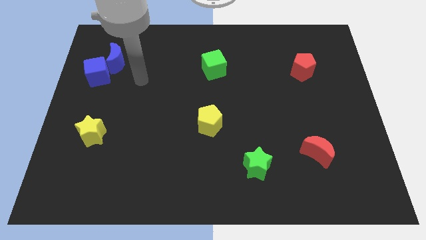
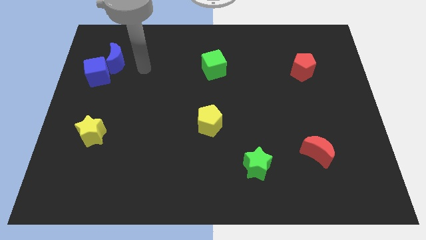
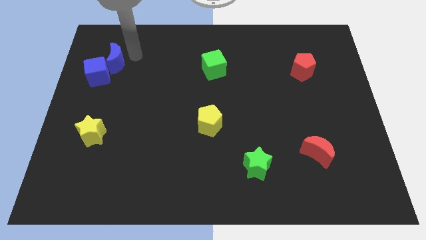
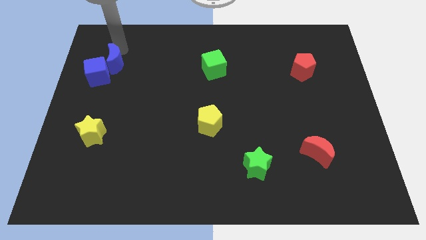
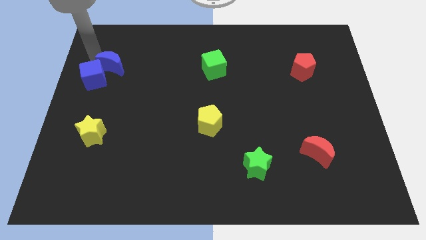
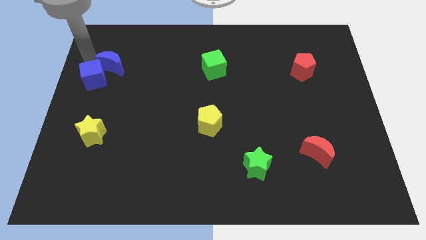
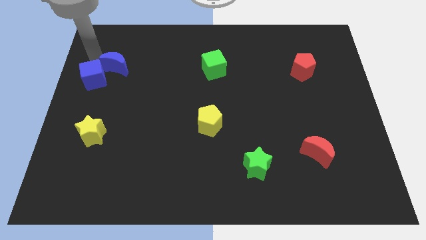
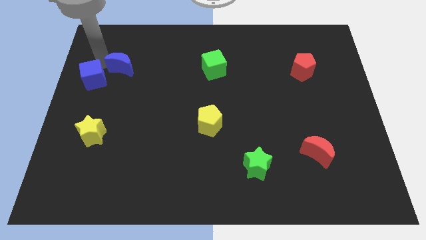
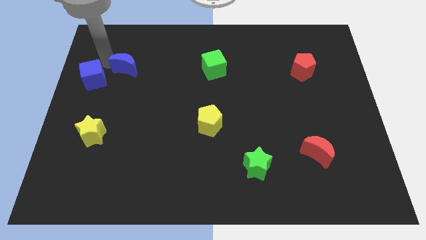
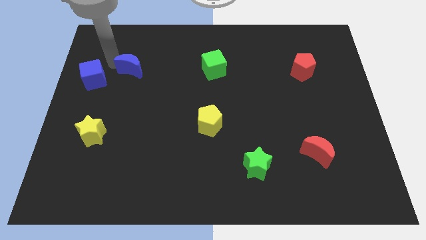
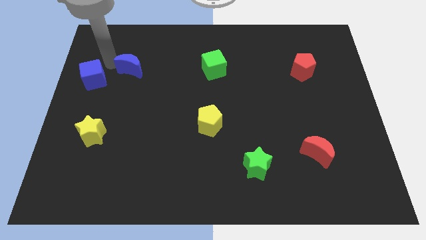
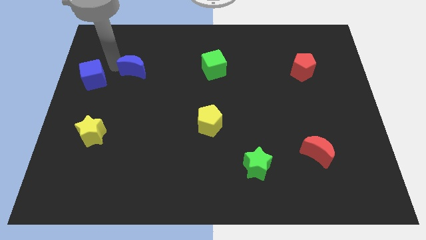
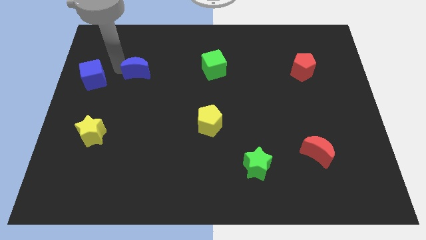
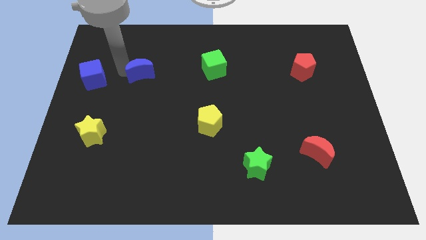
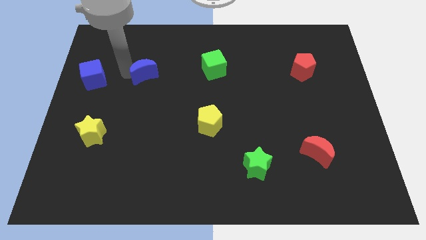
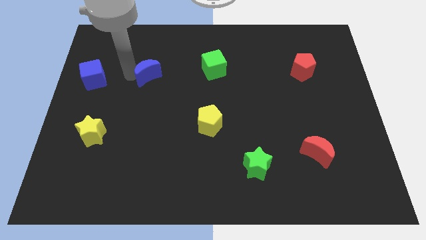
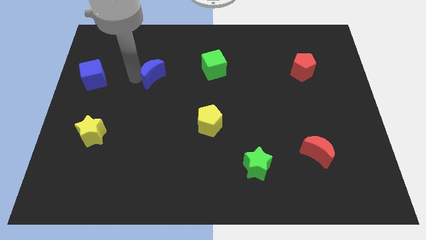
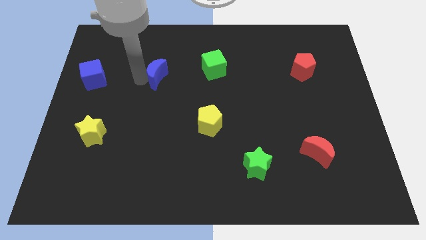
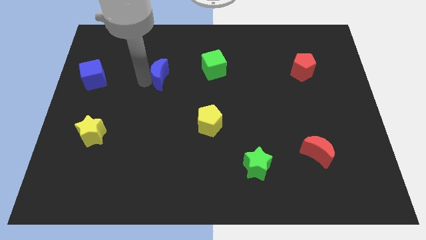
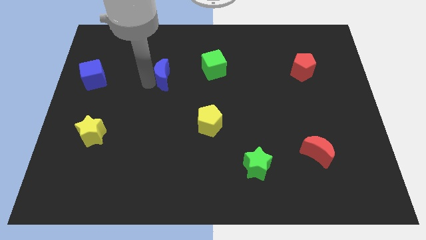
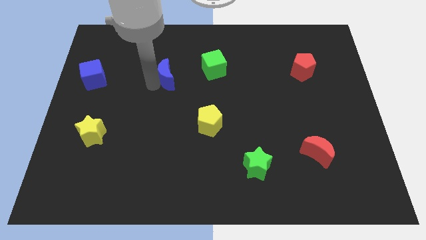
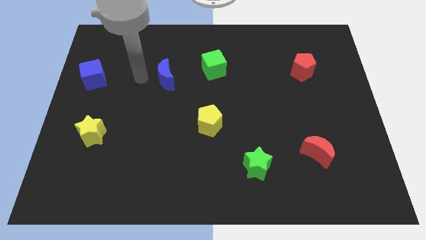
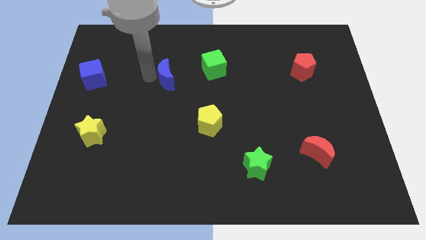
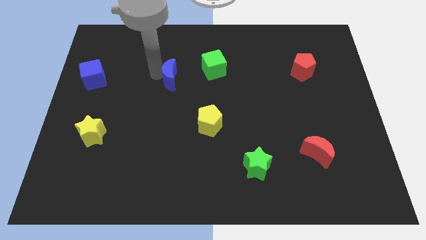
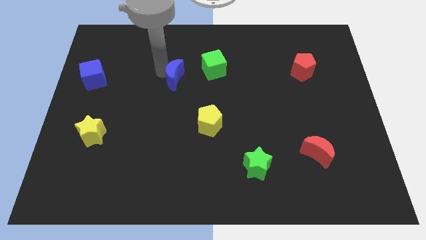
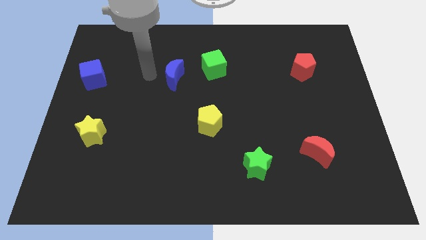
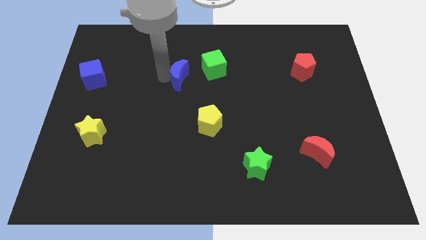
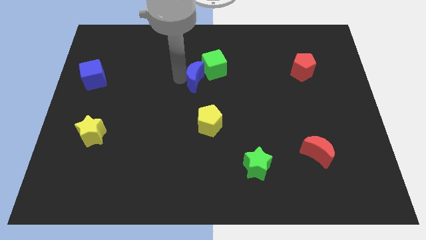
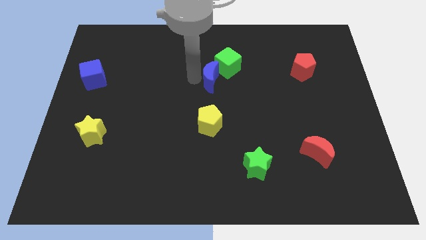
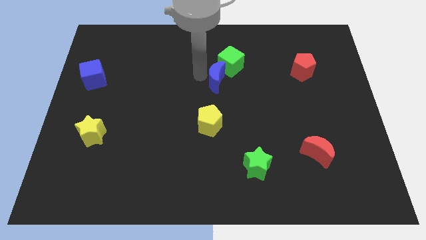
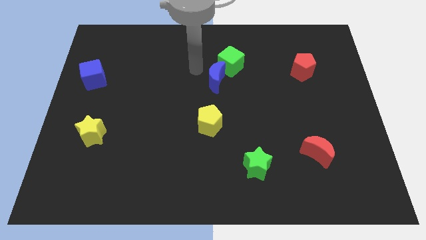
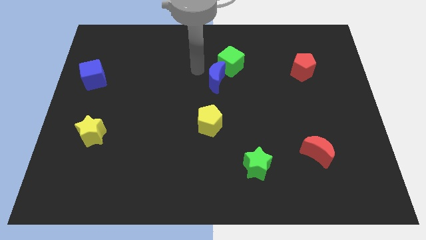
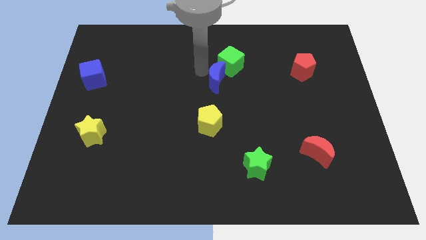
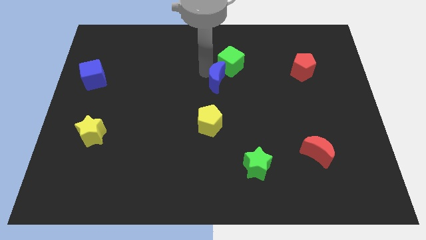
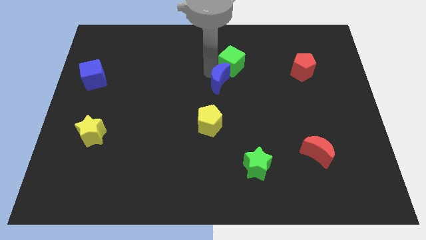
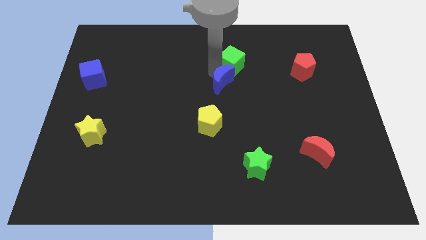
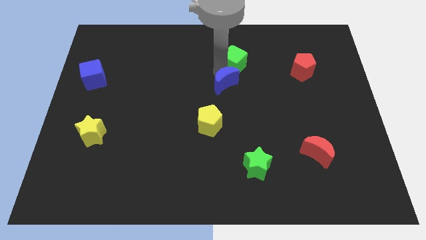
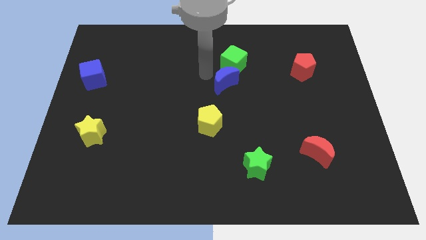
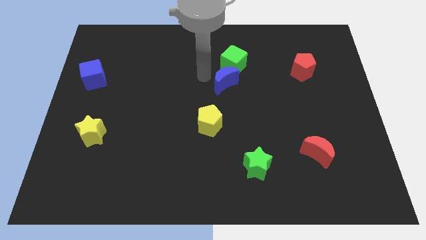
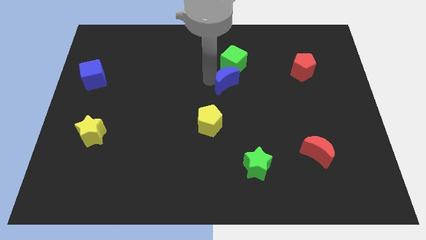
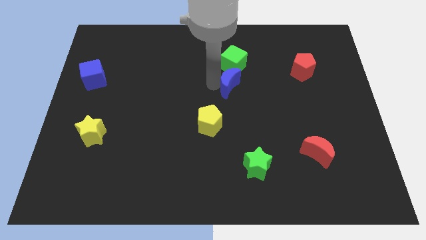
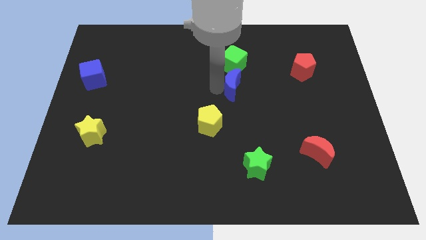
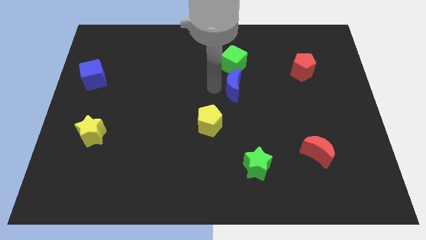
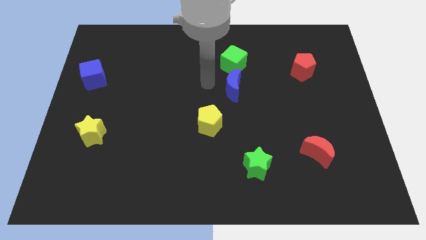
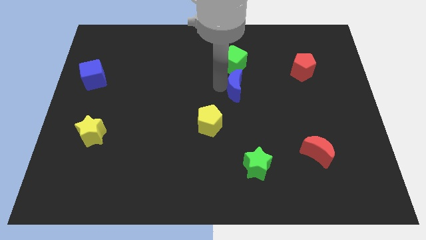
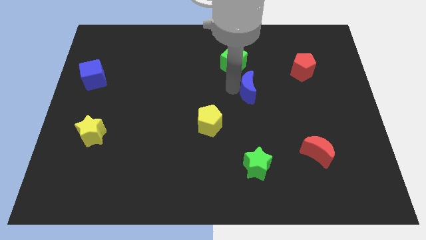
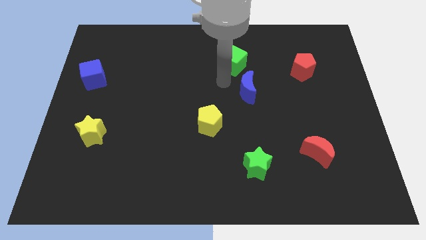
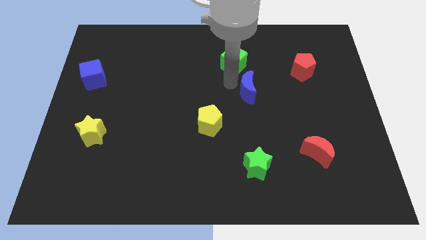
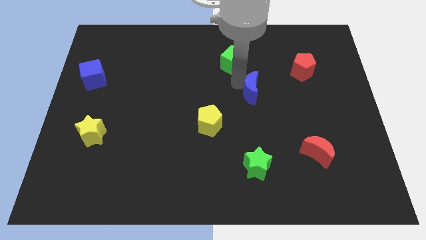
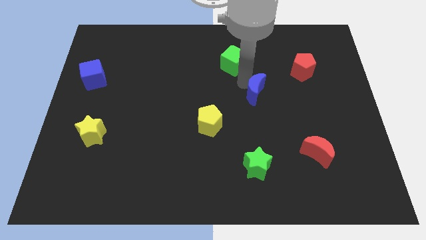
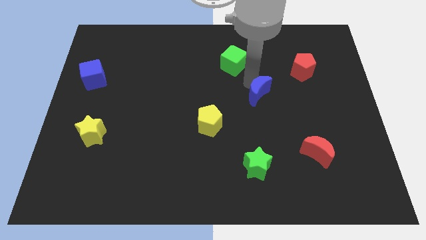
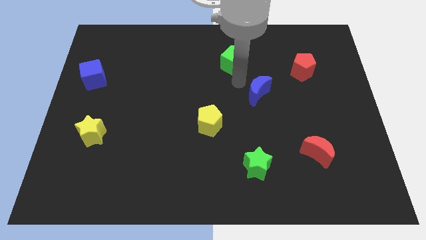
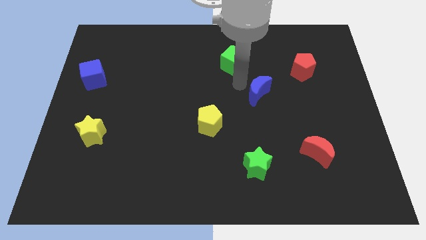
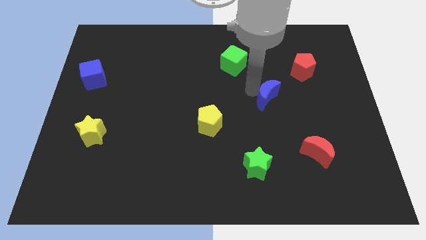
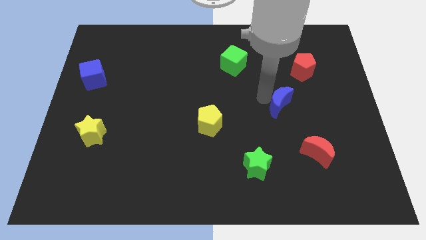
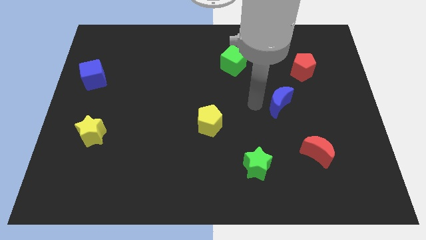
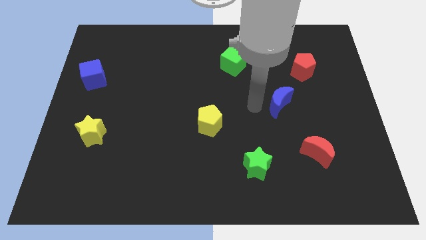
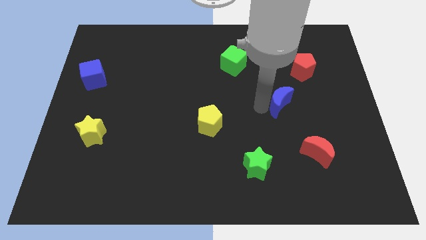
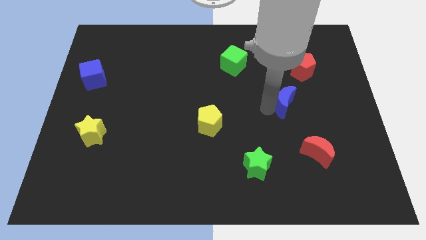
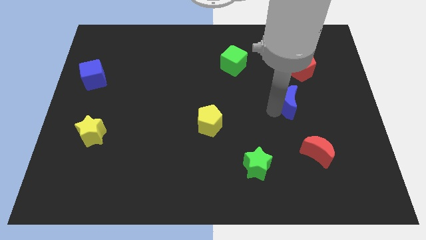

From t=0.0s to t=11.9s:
push the blue moon to the bottom side of the red pentagon

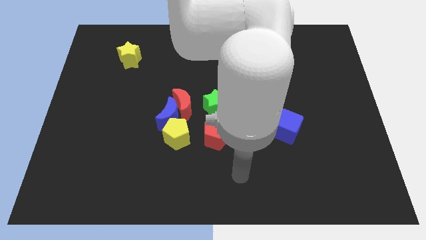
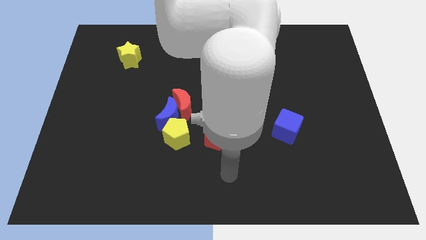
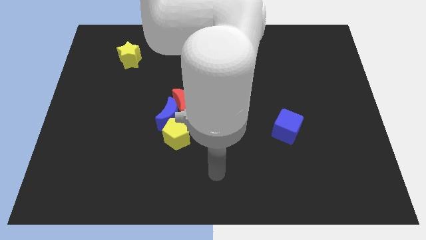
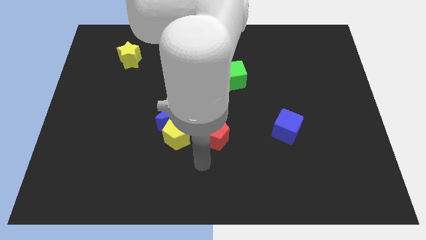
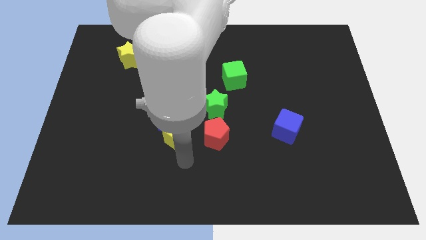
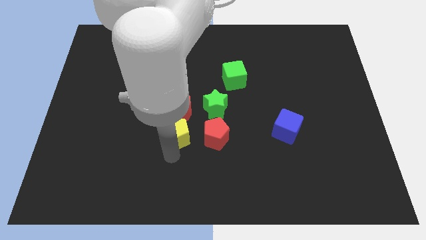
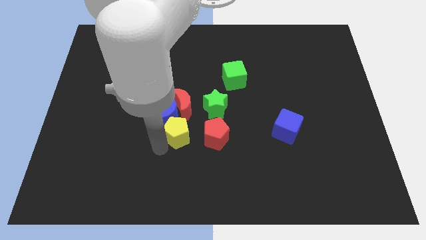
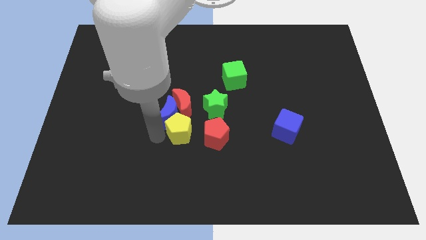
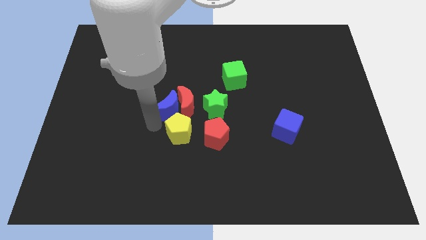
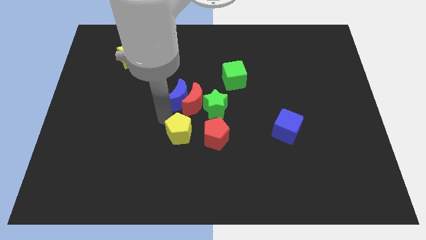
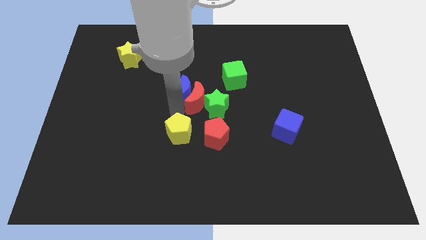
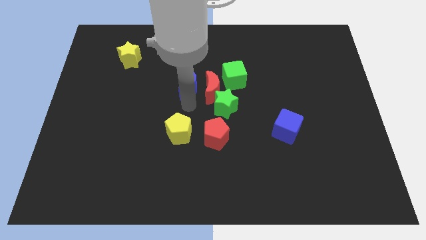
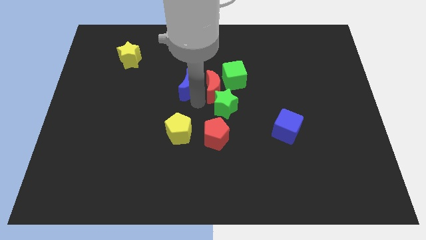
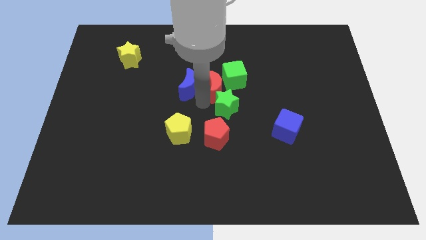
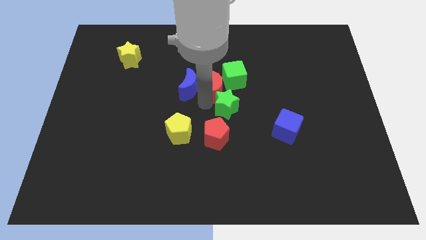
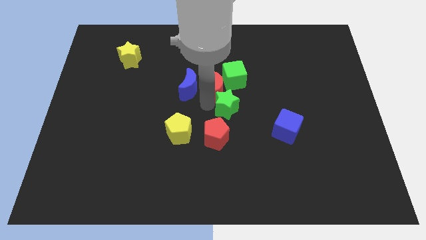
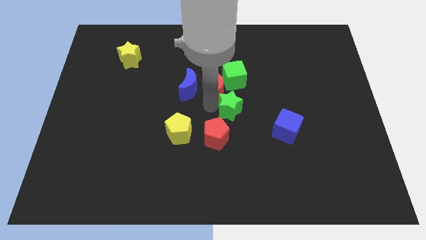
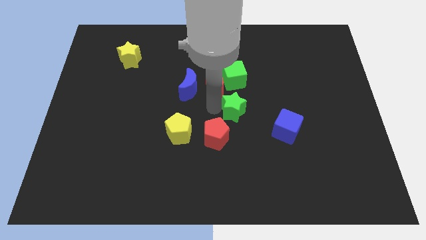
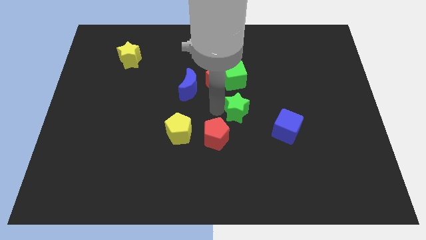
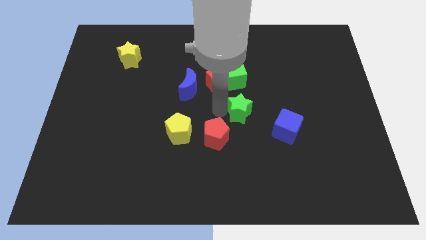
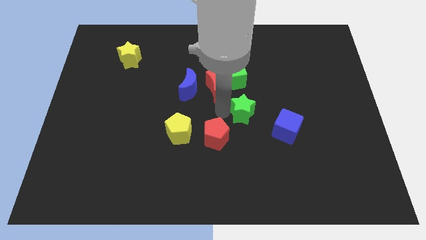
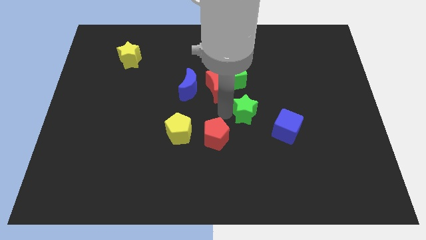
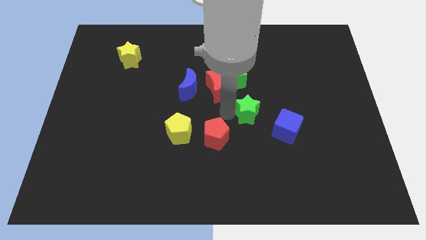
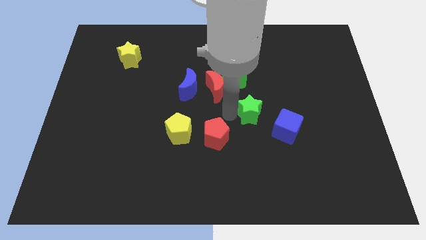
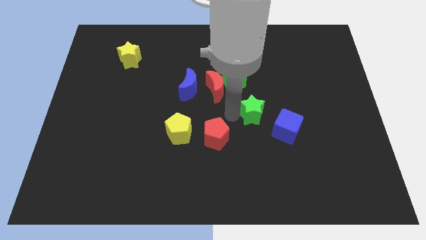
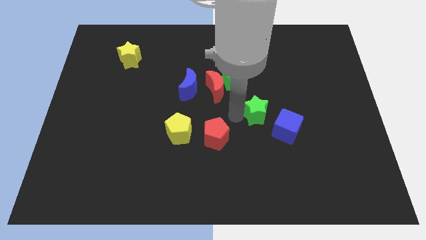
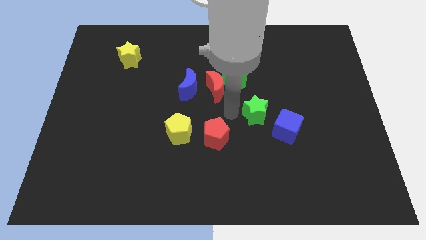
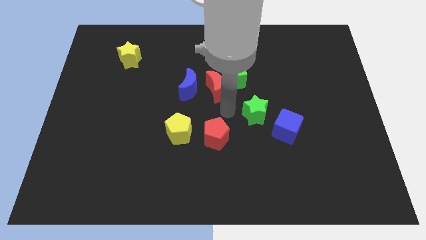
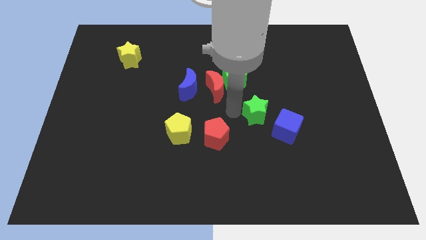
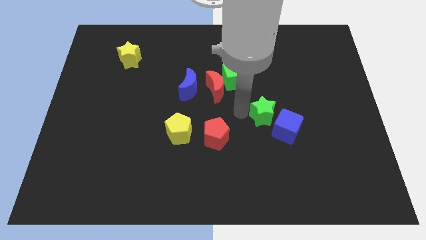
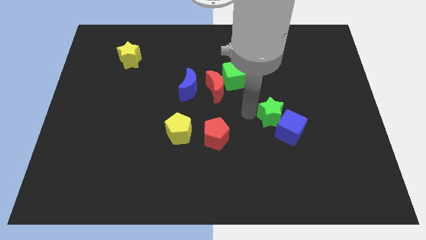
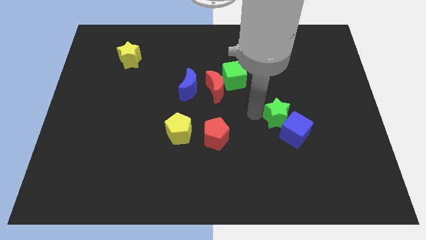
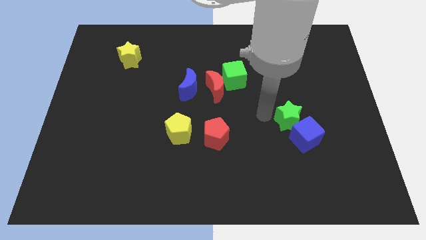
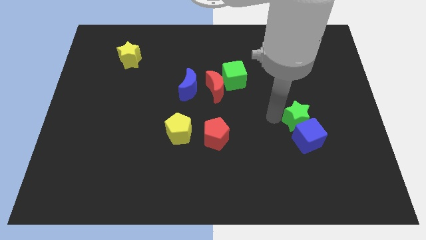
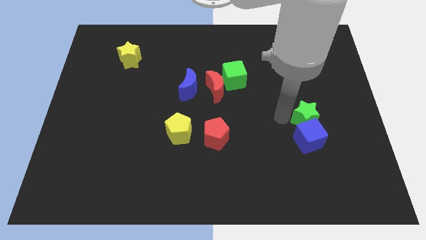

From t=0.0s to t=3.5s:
slide the green star to the top right side of the blue cube
